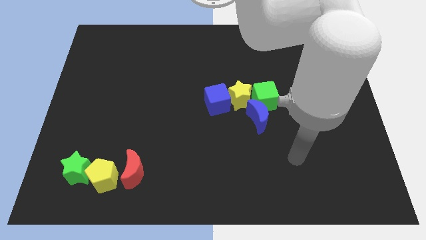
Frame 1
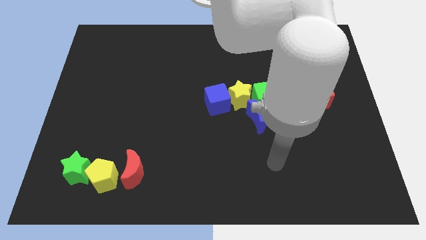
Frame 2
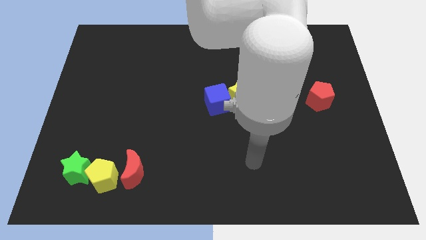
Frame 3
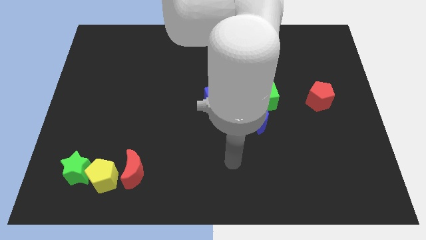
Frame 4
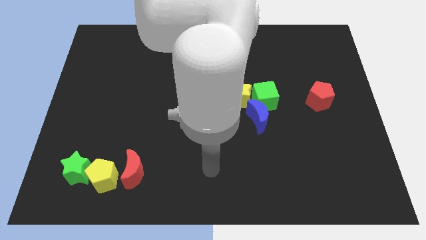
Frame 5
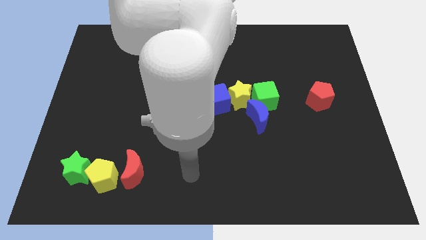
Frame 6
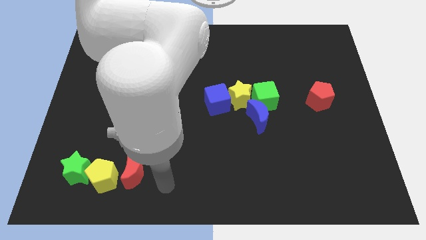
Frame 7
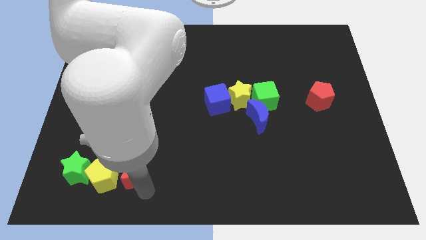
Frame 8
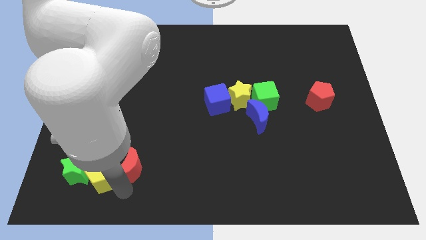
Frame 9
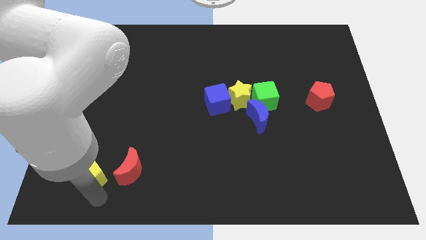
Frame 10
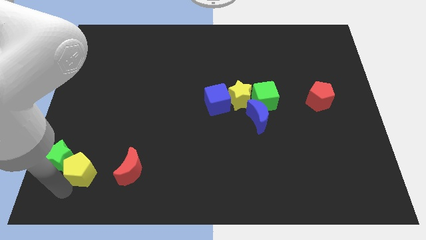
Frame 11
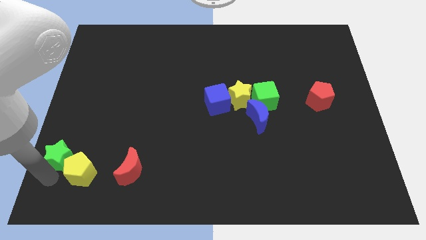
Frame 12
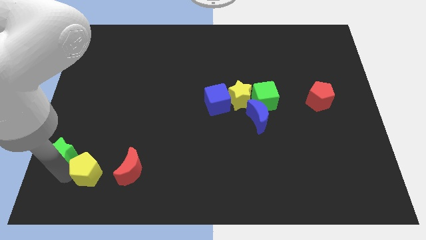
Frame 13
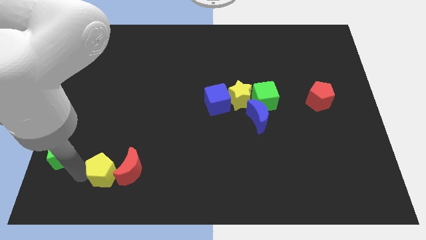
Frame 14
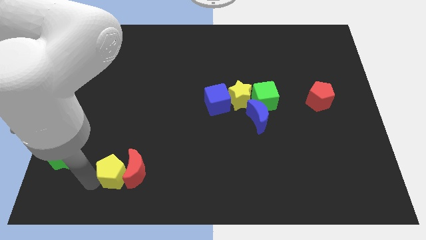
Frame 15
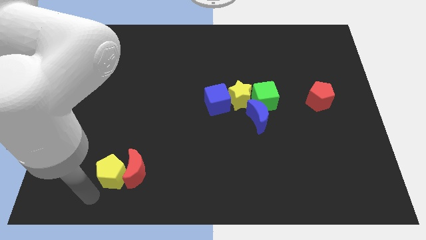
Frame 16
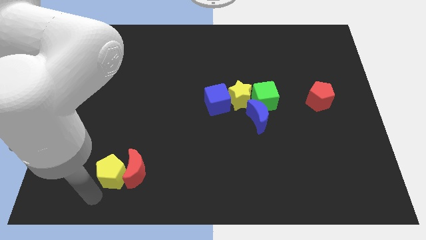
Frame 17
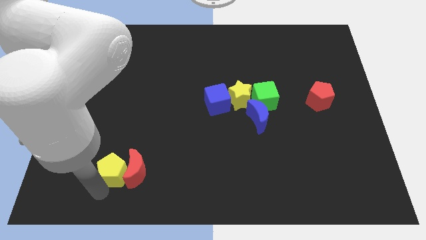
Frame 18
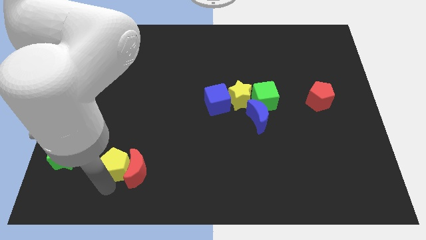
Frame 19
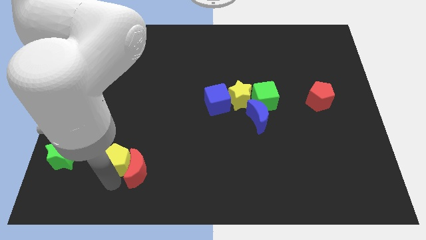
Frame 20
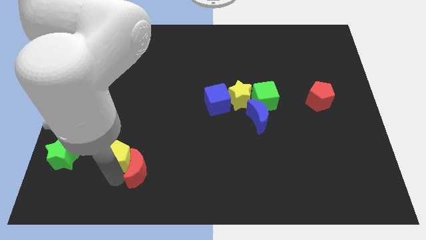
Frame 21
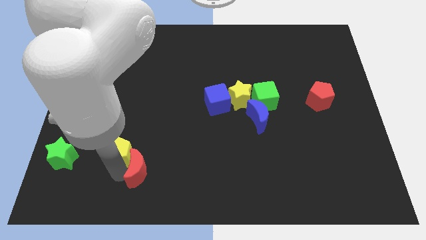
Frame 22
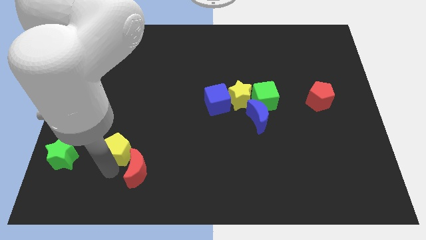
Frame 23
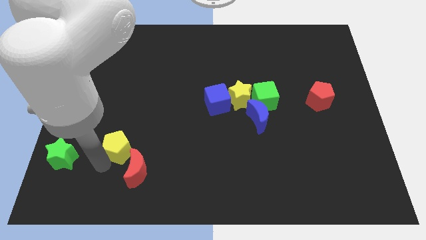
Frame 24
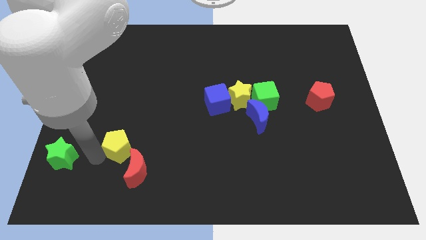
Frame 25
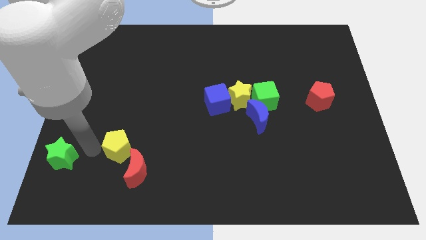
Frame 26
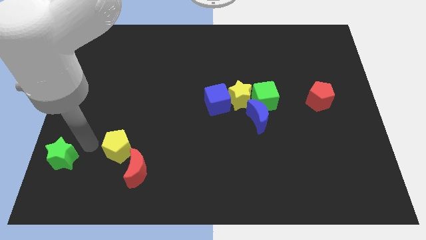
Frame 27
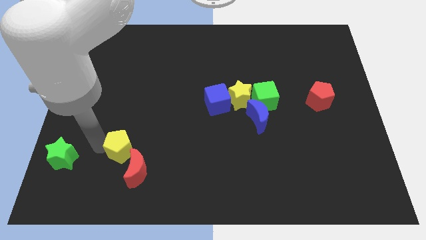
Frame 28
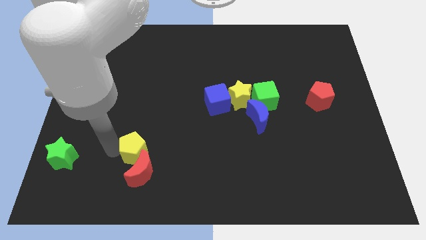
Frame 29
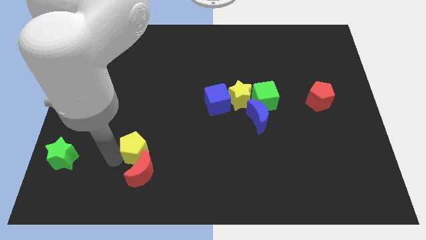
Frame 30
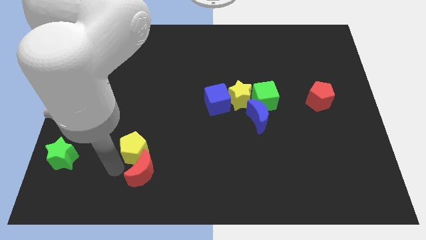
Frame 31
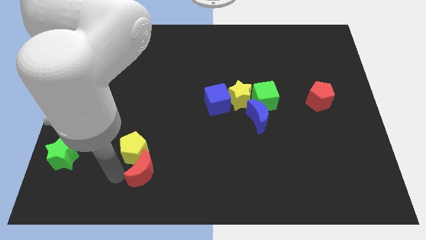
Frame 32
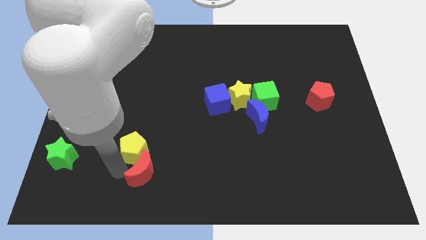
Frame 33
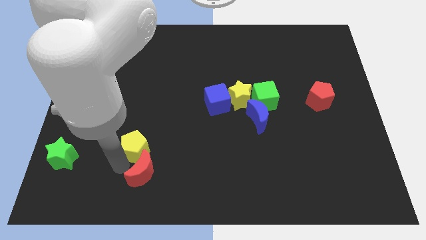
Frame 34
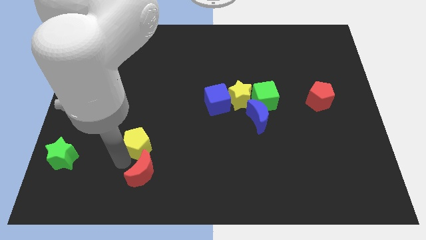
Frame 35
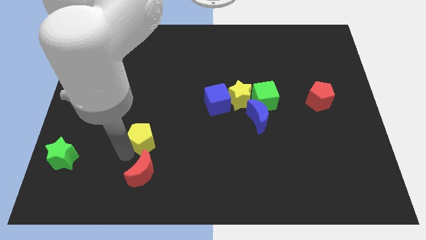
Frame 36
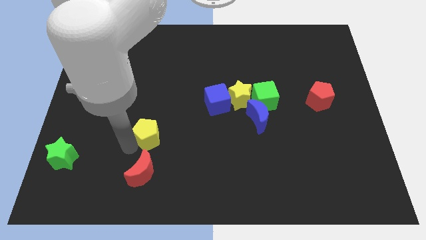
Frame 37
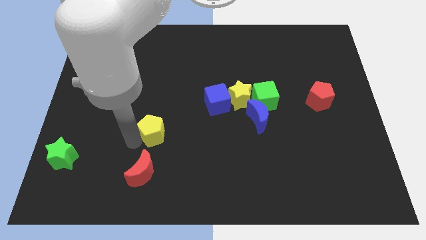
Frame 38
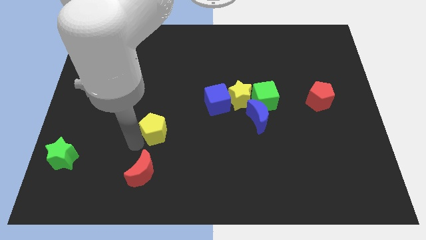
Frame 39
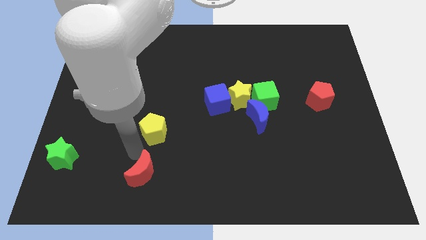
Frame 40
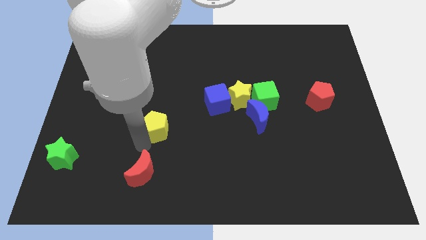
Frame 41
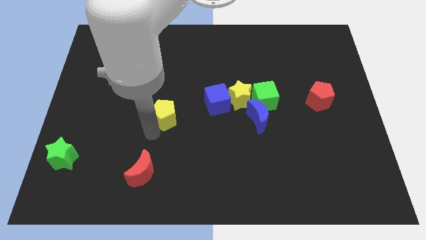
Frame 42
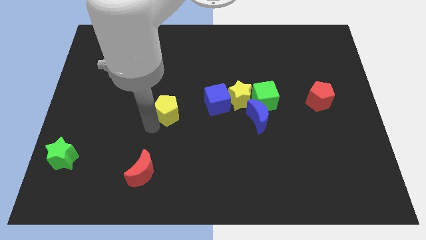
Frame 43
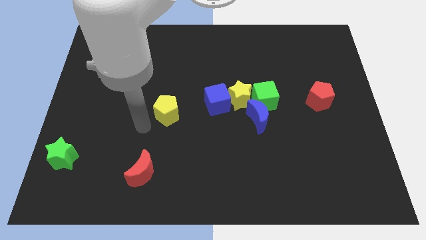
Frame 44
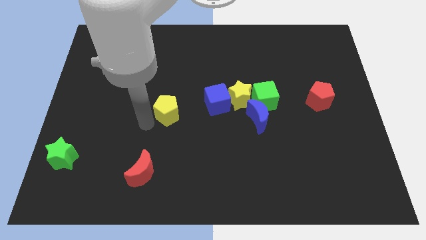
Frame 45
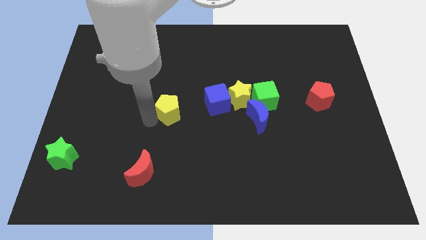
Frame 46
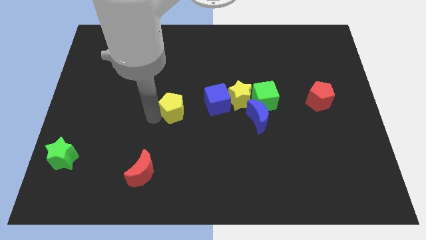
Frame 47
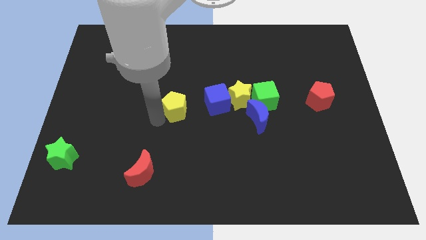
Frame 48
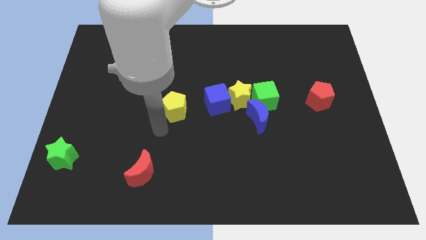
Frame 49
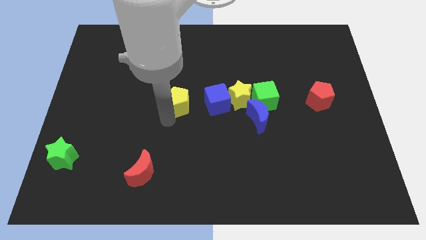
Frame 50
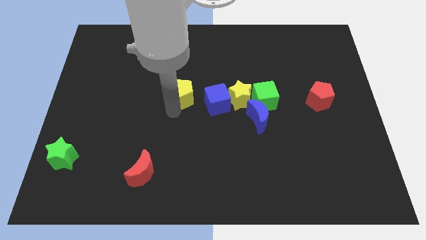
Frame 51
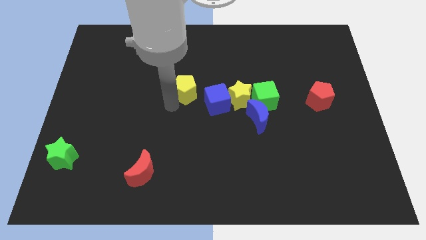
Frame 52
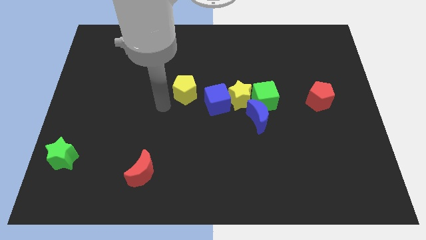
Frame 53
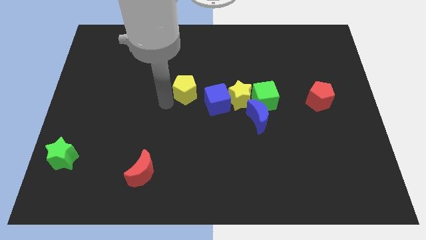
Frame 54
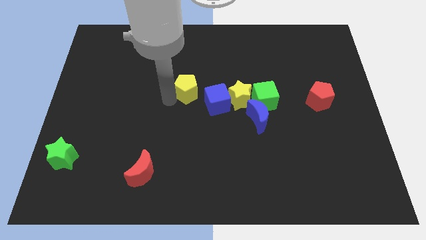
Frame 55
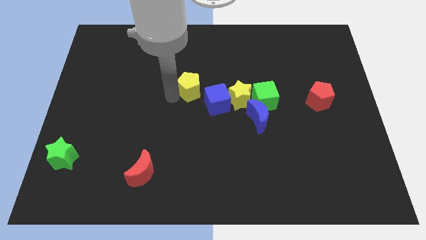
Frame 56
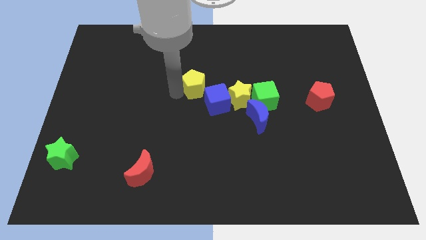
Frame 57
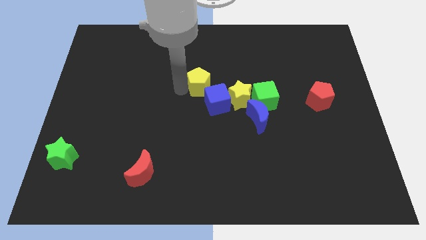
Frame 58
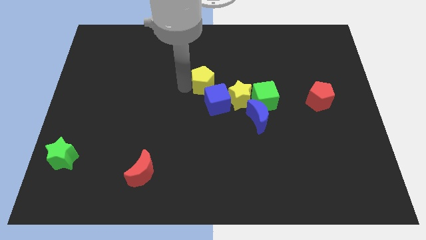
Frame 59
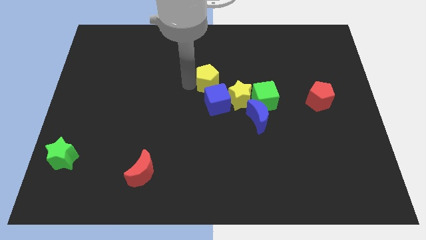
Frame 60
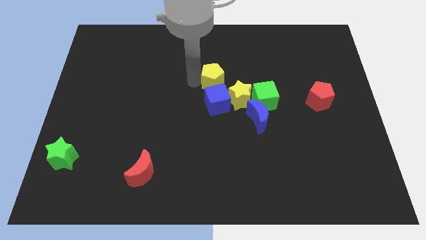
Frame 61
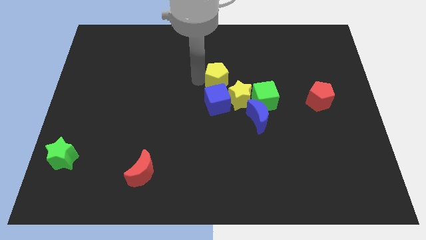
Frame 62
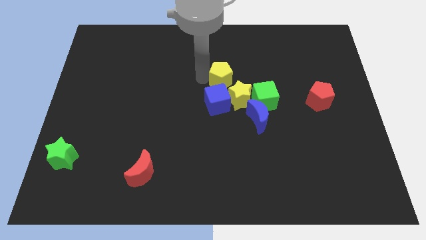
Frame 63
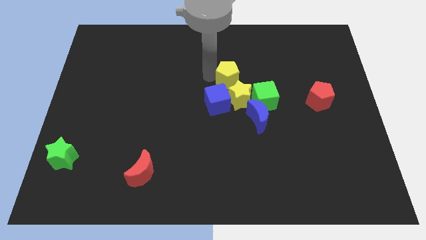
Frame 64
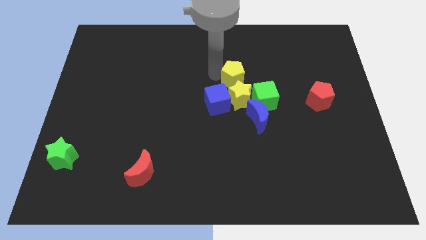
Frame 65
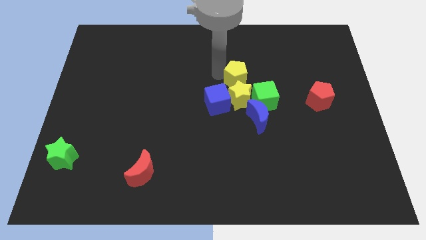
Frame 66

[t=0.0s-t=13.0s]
push the yellow pentagon above the blue moon
